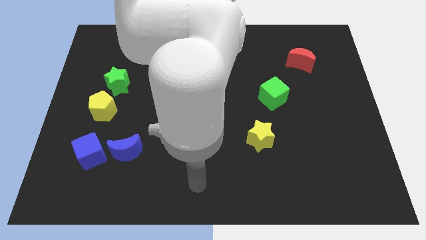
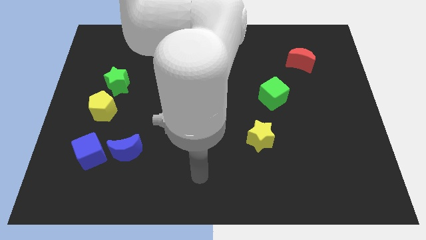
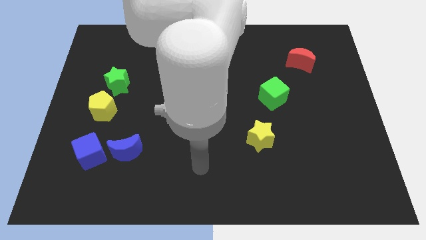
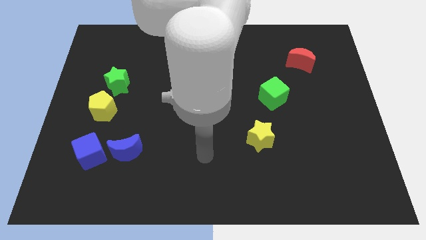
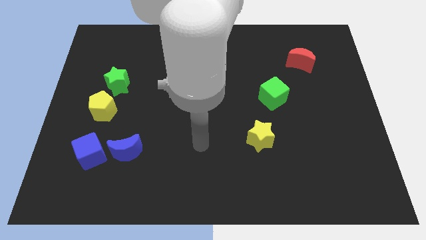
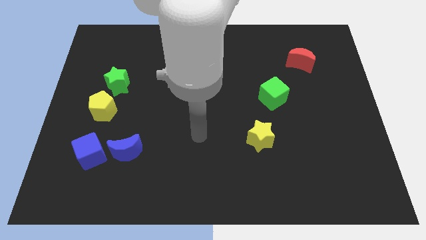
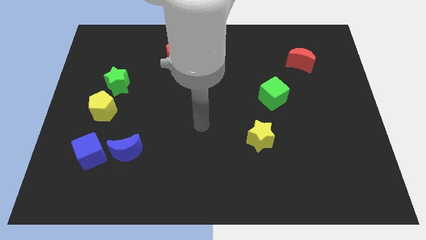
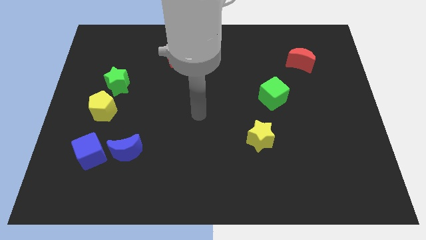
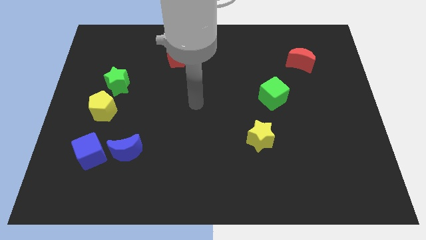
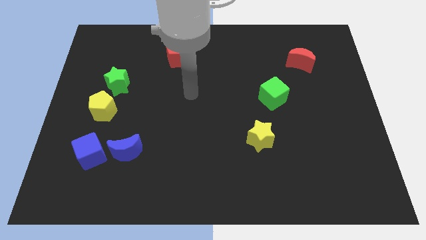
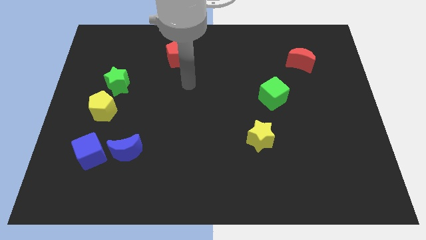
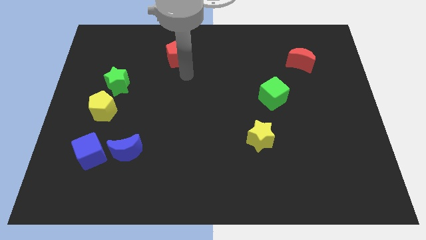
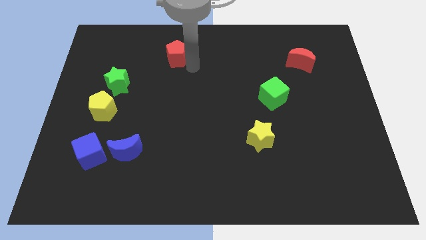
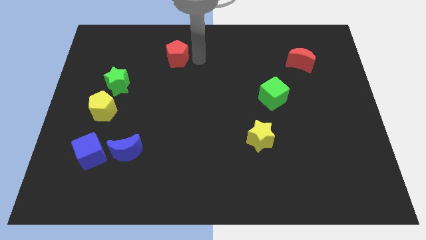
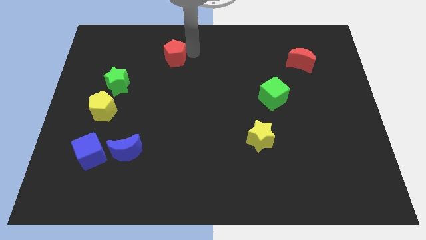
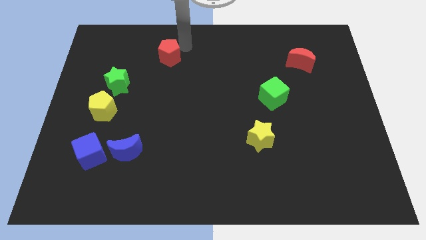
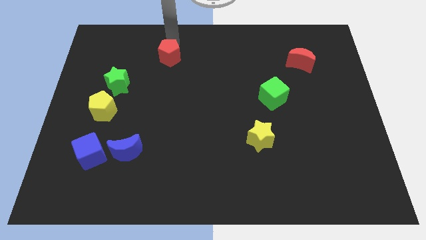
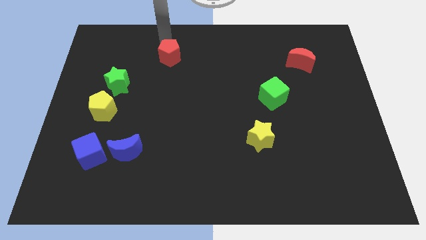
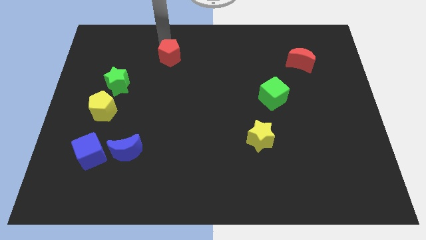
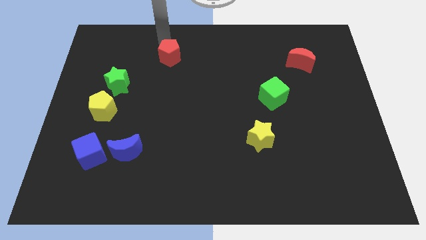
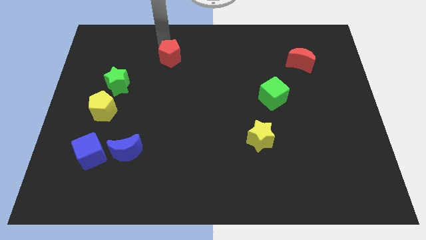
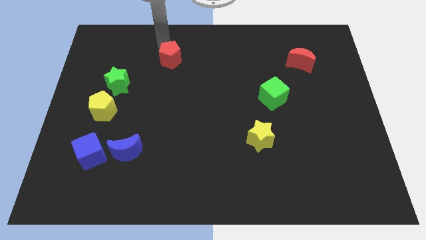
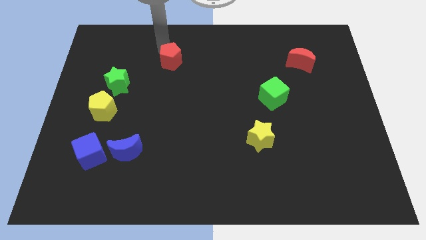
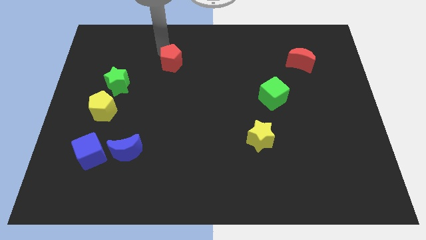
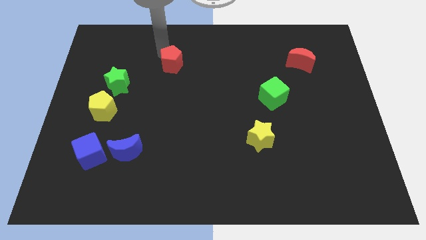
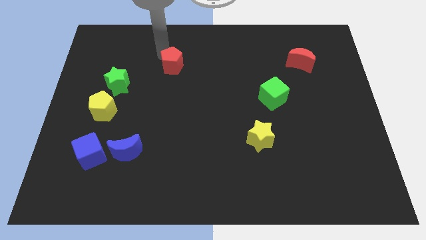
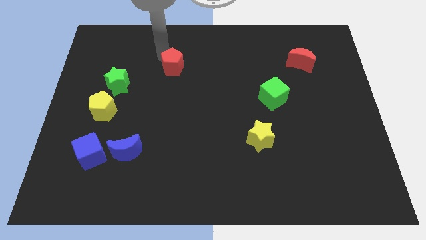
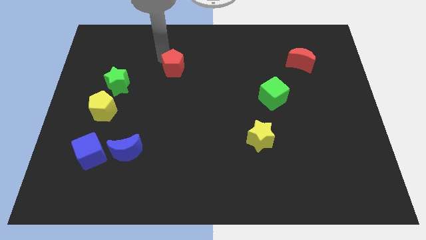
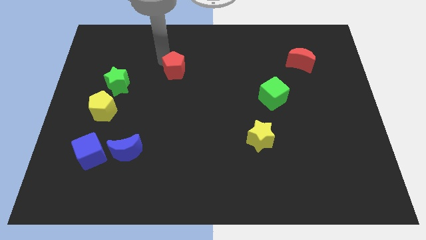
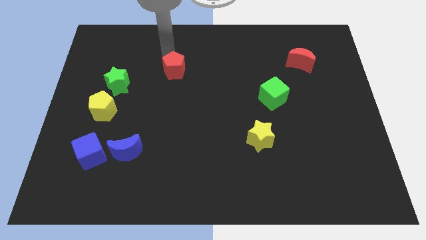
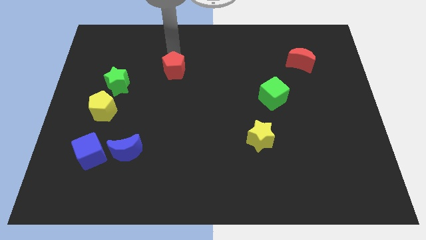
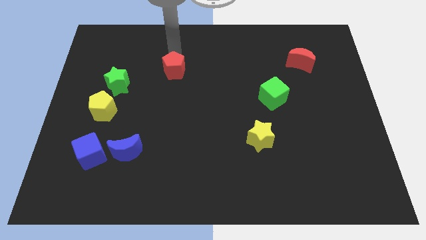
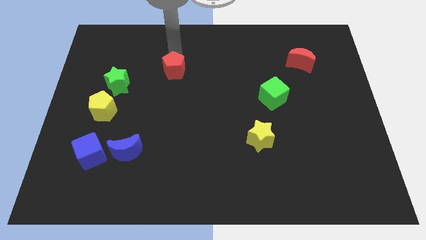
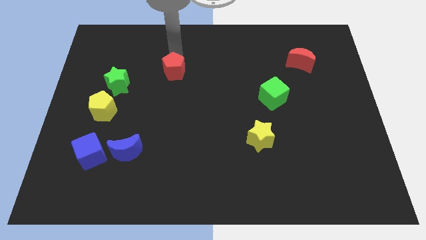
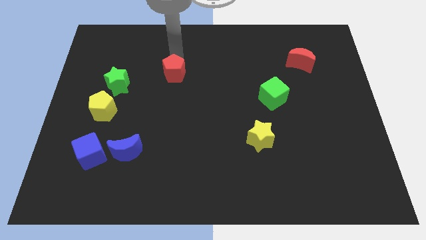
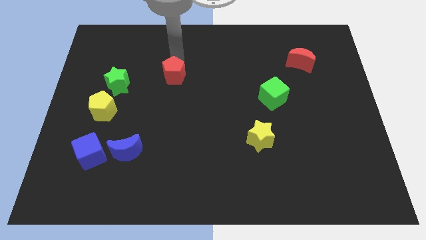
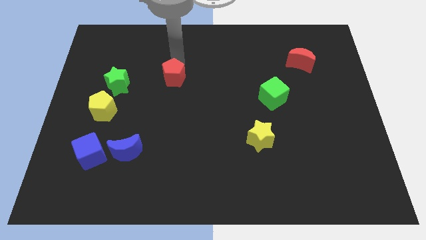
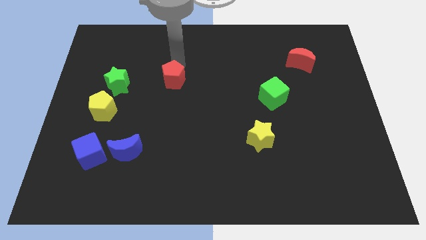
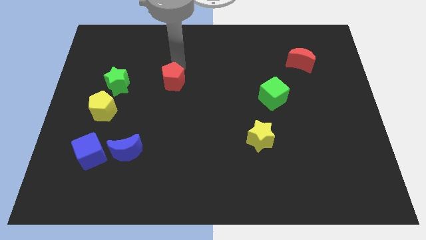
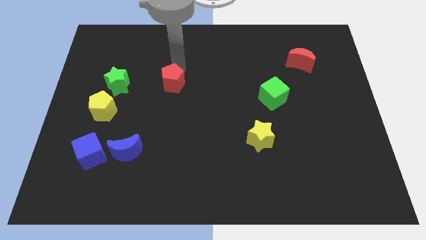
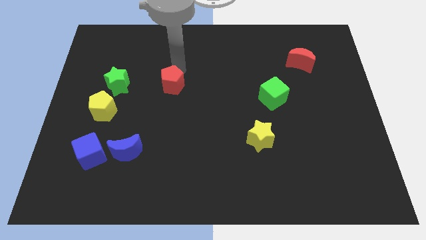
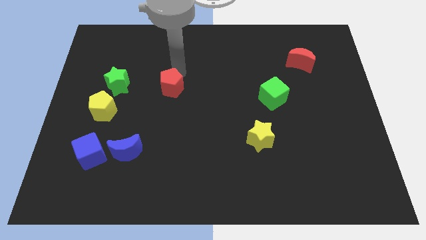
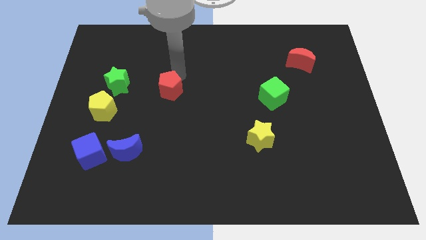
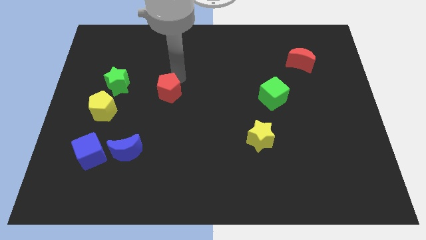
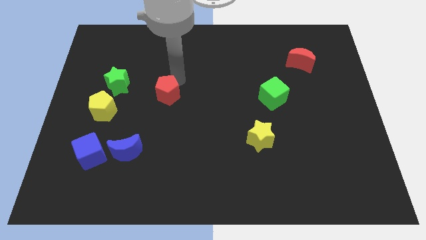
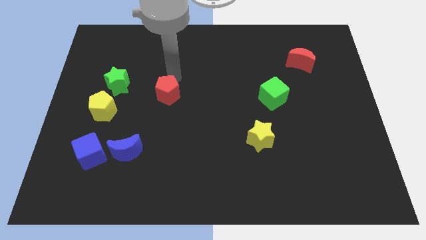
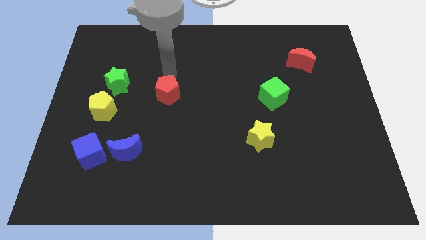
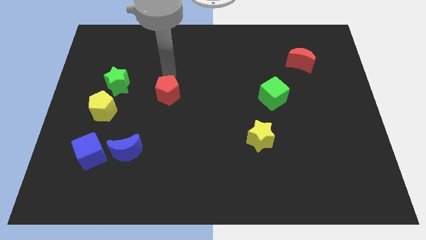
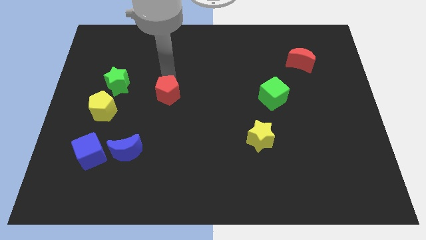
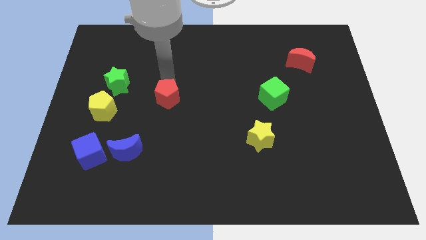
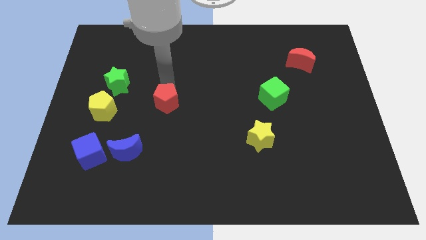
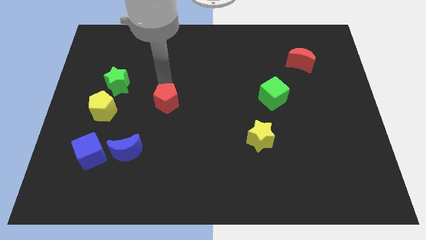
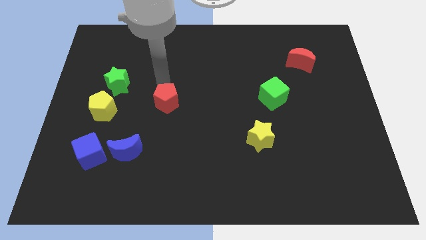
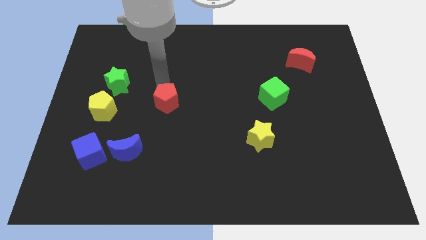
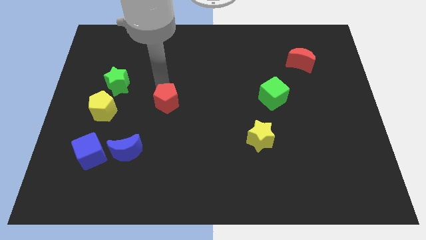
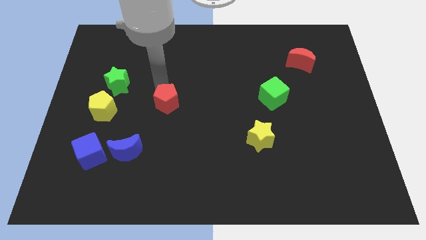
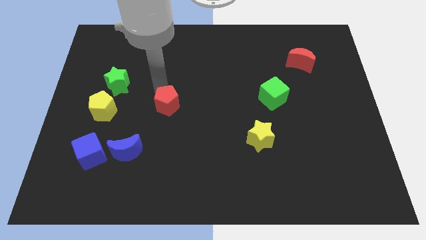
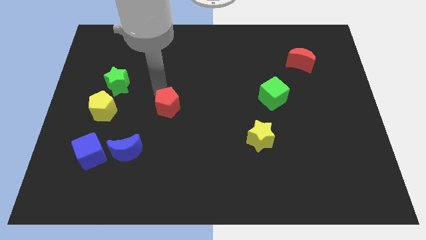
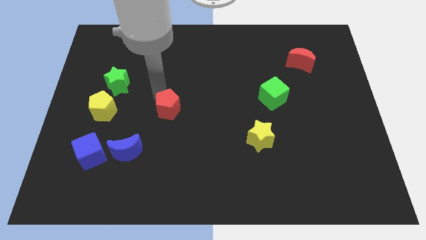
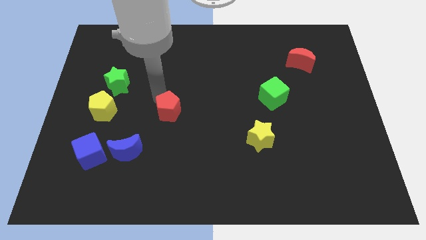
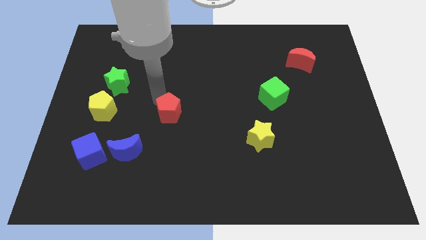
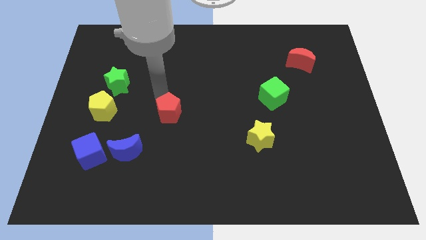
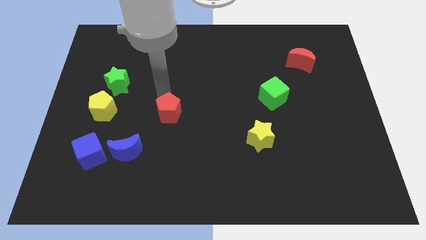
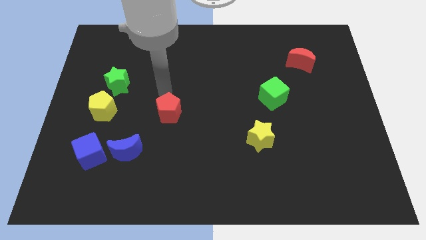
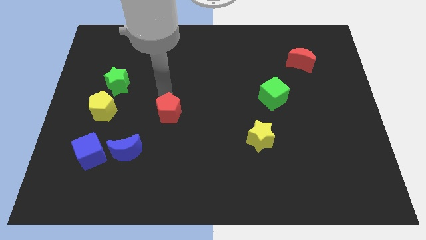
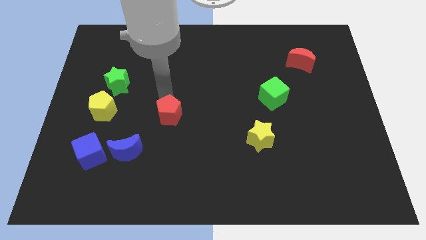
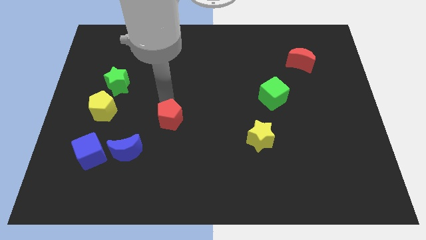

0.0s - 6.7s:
push the red pentagon down

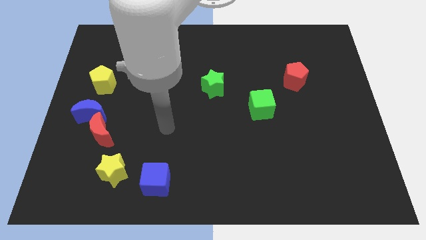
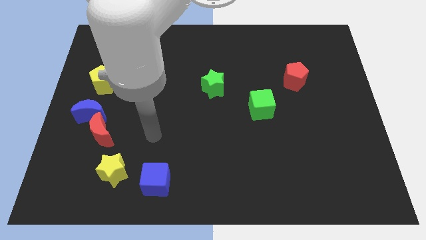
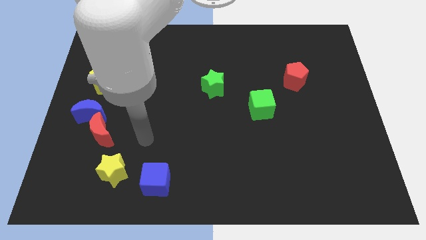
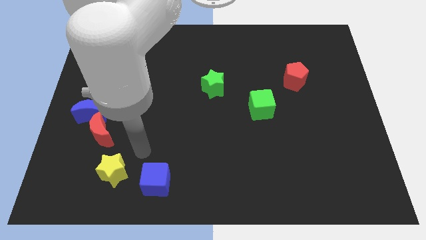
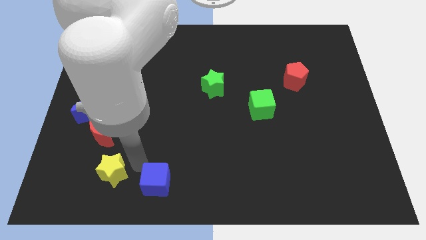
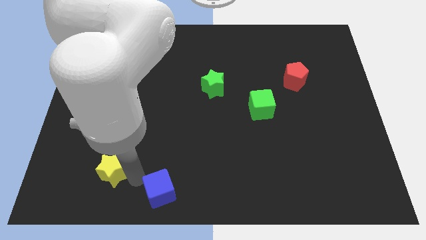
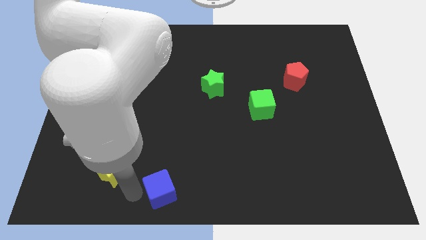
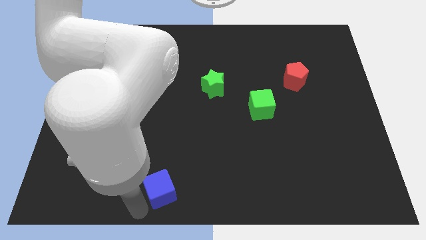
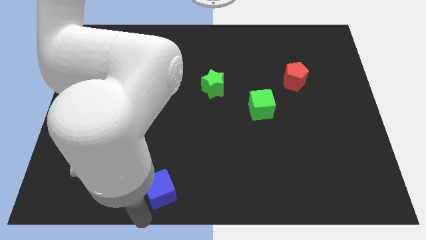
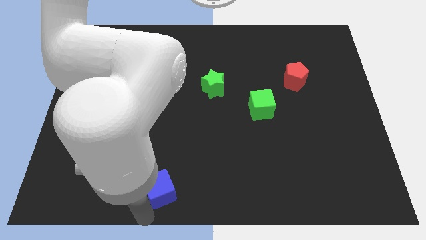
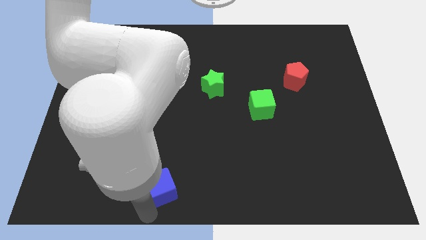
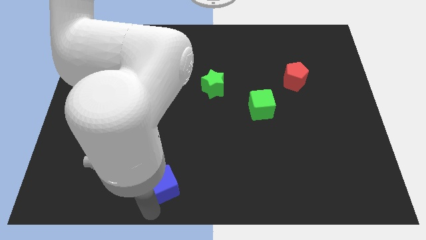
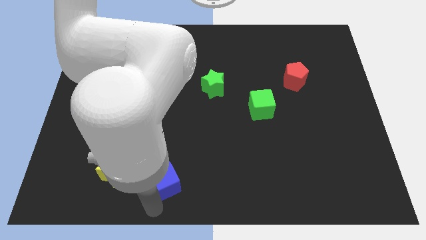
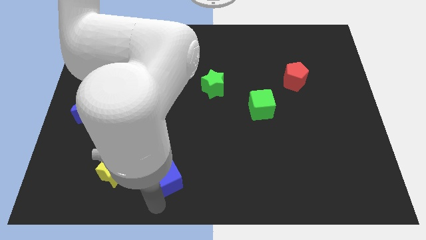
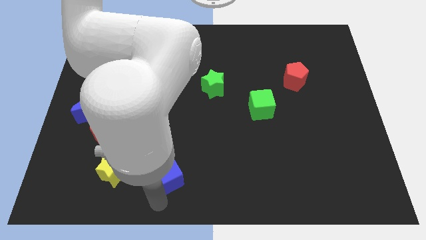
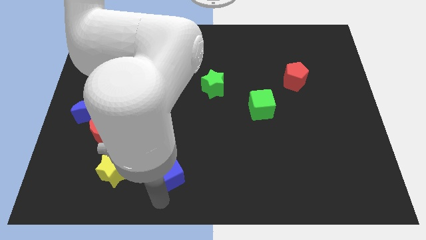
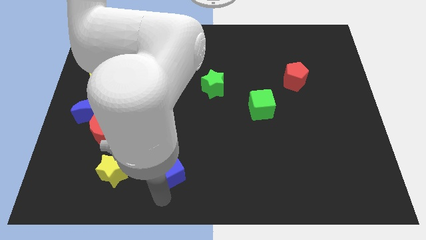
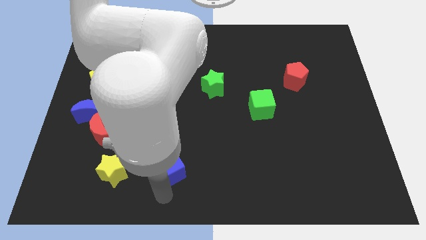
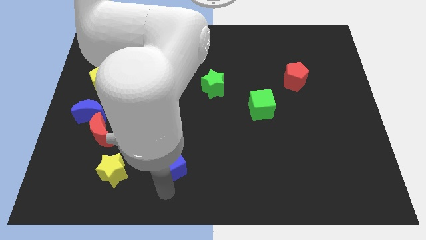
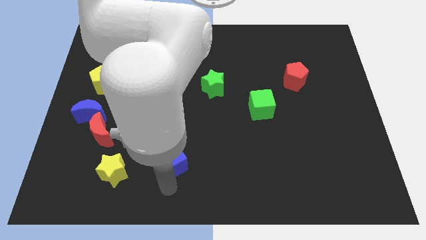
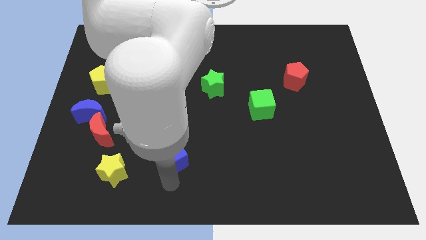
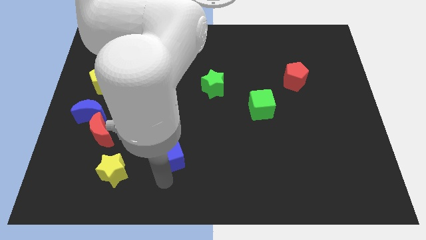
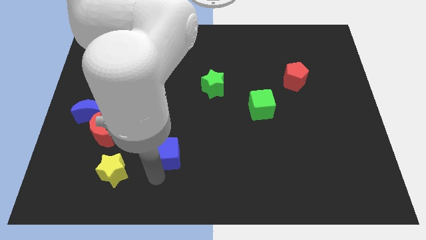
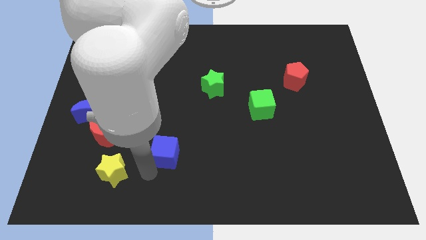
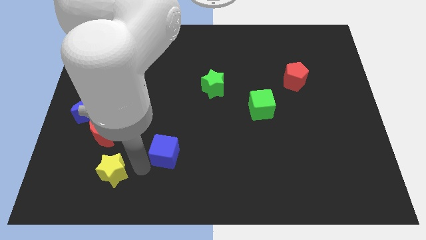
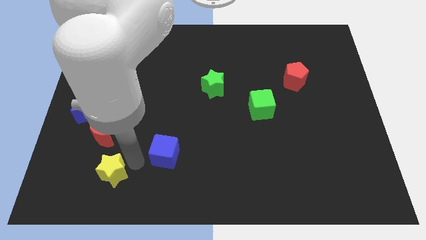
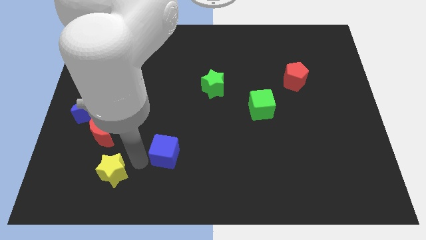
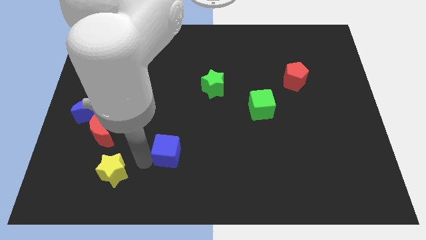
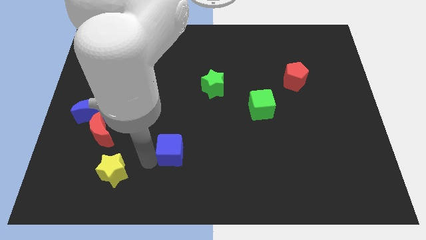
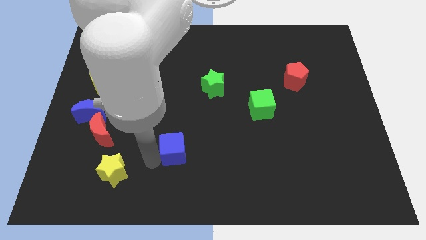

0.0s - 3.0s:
push the blue cube somewhat upwards and then right
